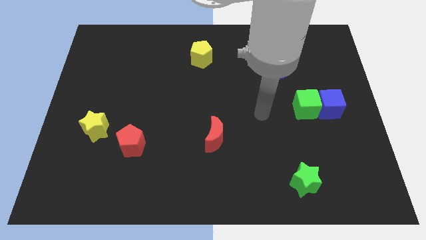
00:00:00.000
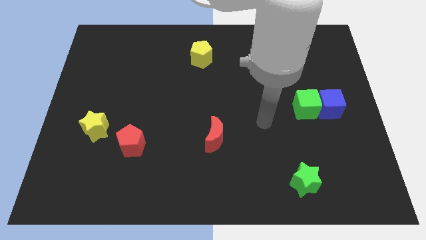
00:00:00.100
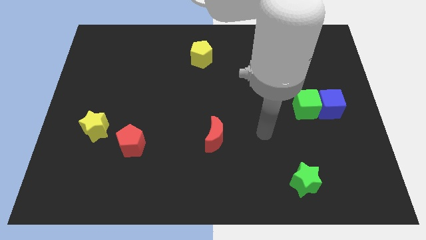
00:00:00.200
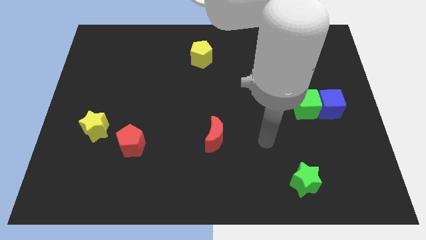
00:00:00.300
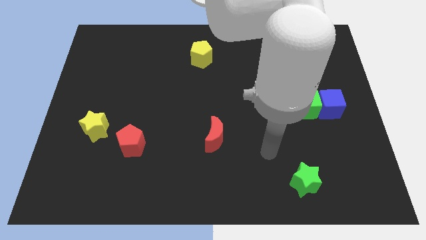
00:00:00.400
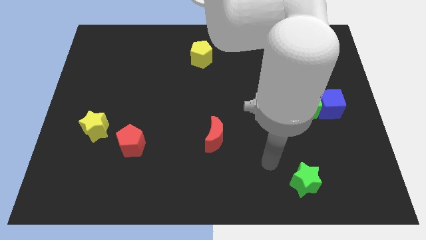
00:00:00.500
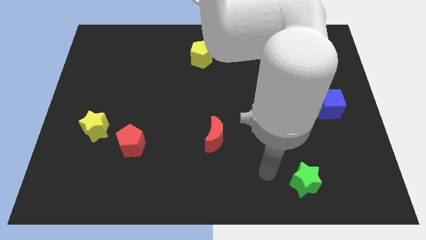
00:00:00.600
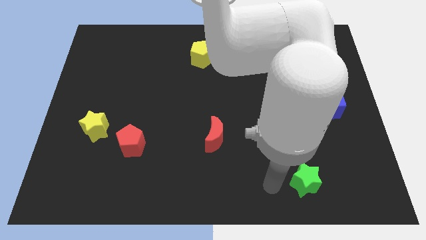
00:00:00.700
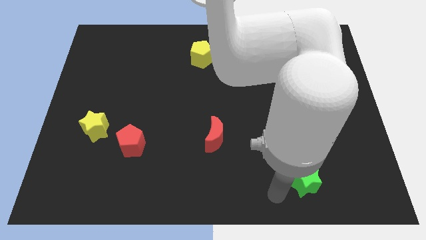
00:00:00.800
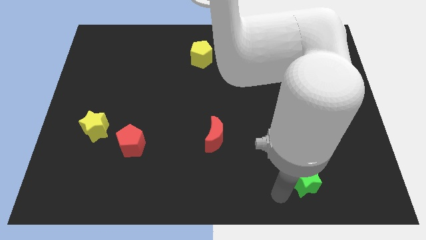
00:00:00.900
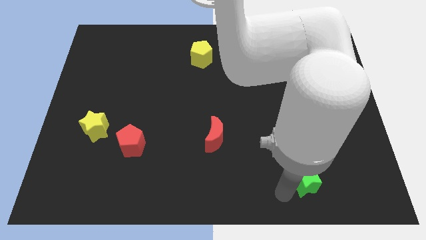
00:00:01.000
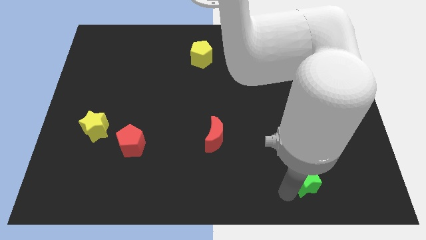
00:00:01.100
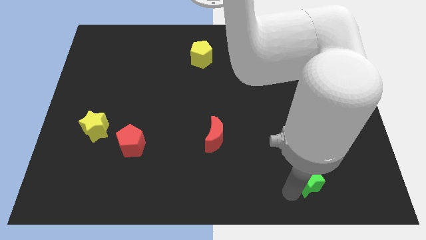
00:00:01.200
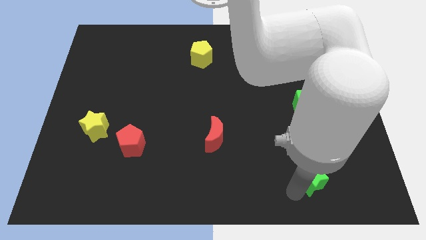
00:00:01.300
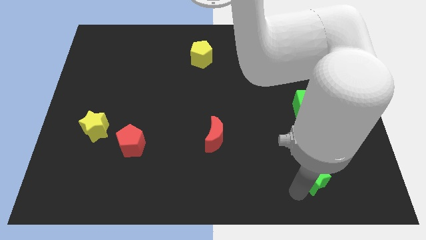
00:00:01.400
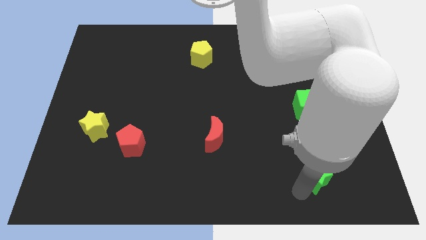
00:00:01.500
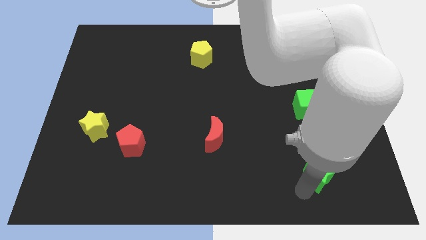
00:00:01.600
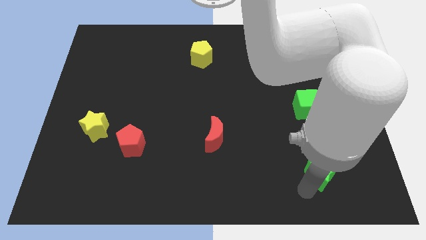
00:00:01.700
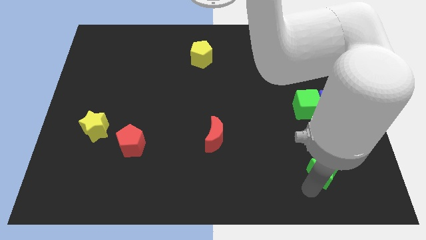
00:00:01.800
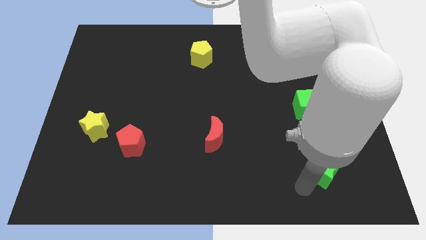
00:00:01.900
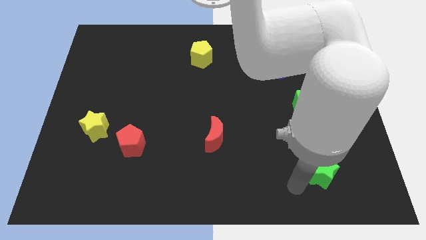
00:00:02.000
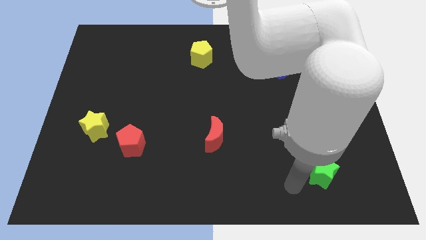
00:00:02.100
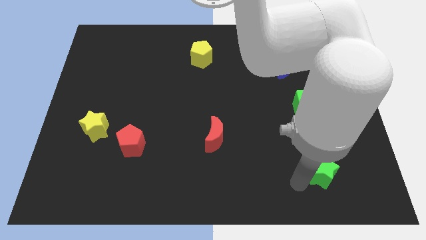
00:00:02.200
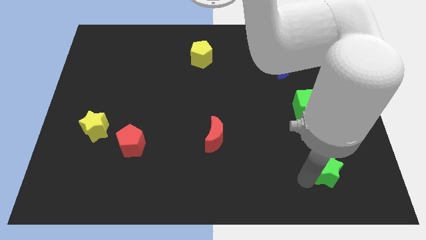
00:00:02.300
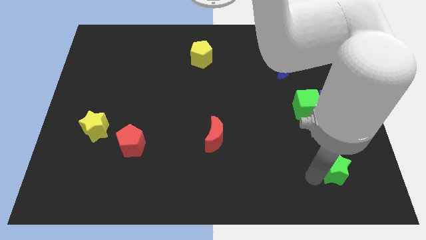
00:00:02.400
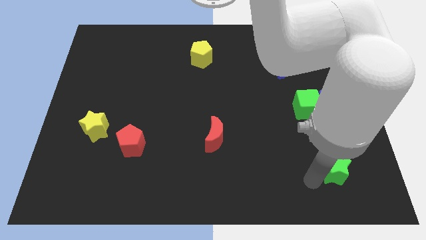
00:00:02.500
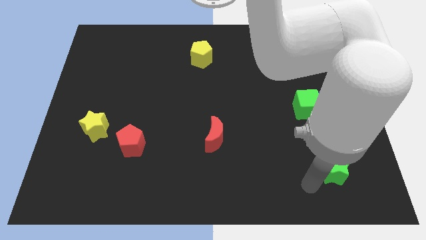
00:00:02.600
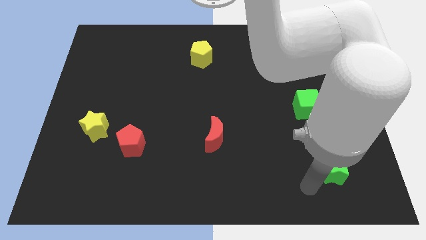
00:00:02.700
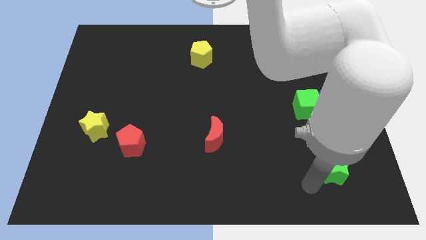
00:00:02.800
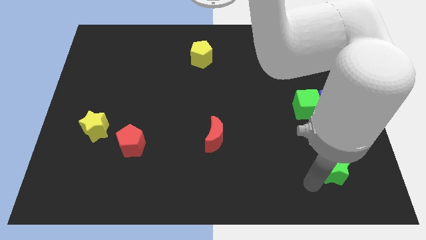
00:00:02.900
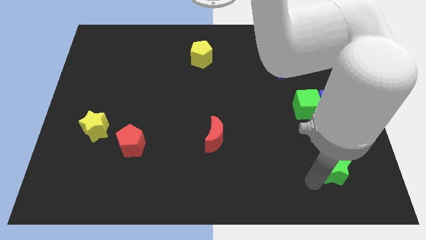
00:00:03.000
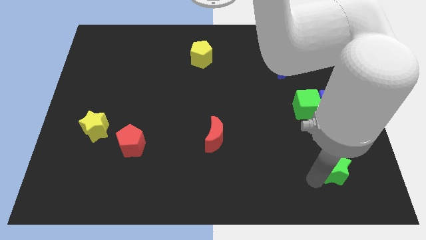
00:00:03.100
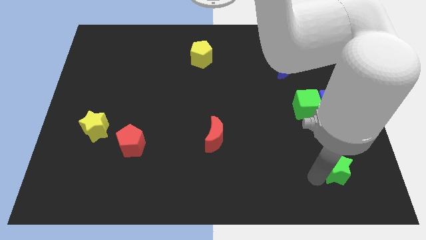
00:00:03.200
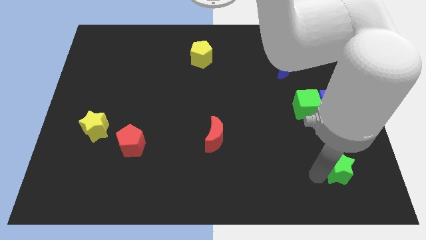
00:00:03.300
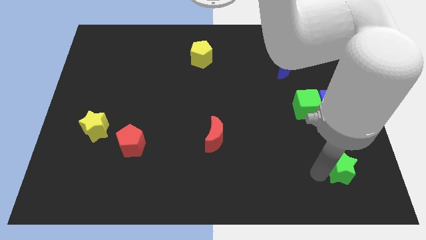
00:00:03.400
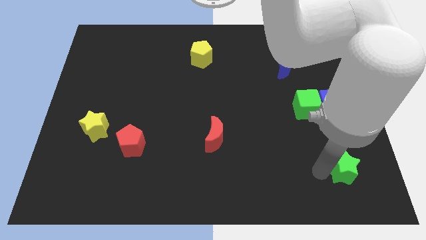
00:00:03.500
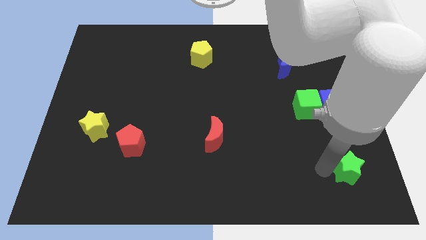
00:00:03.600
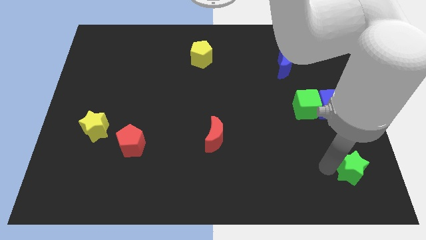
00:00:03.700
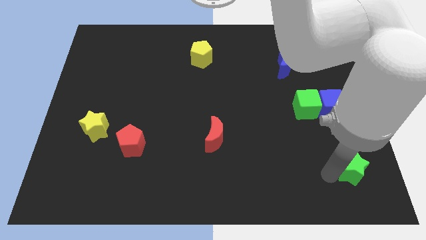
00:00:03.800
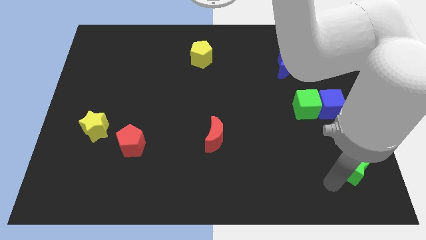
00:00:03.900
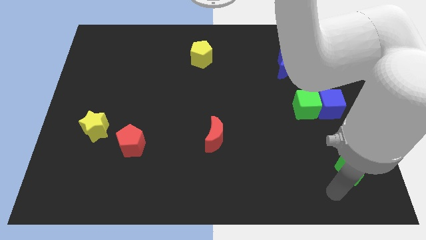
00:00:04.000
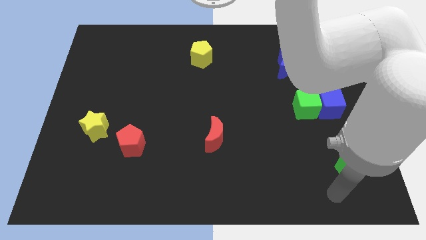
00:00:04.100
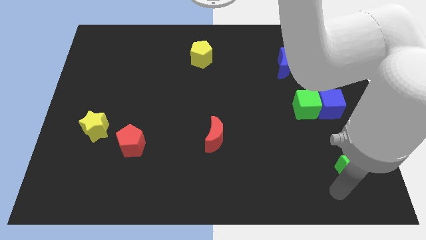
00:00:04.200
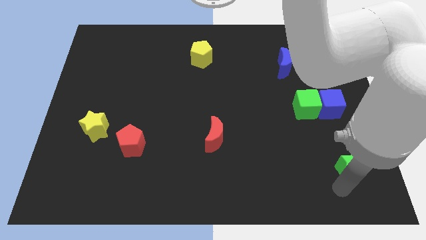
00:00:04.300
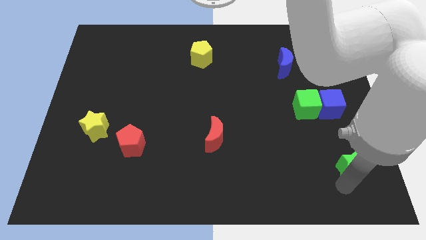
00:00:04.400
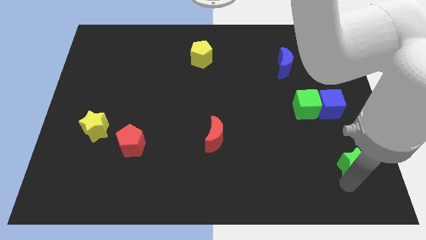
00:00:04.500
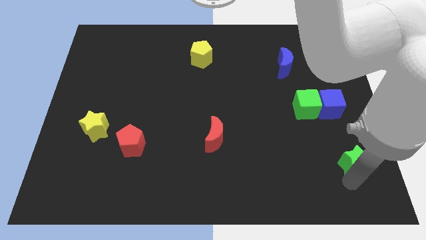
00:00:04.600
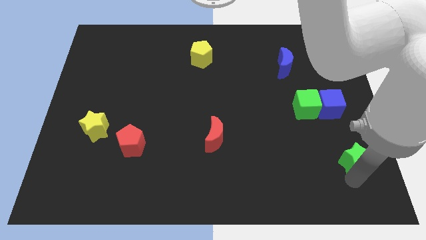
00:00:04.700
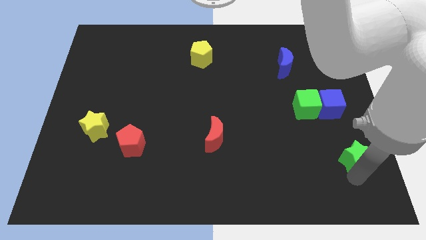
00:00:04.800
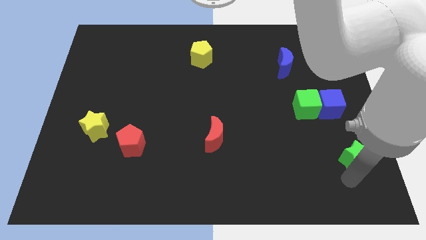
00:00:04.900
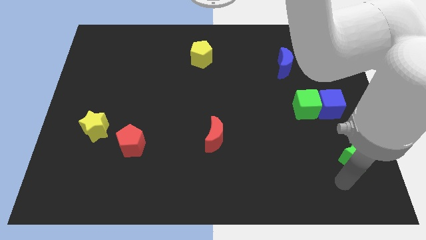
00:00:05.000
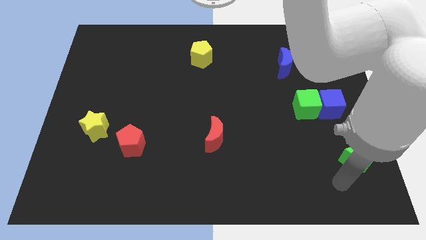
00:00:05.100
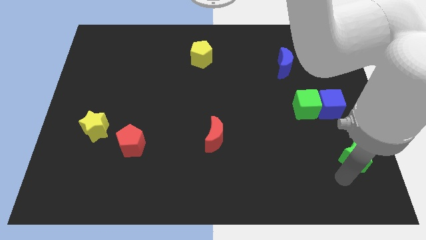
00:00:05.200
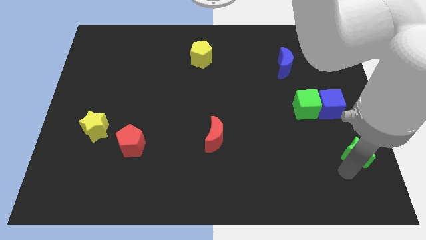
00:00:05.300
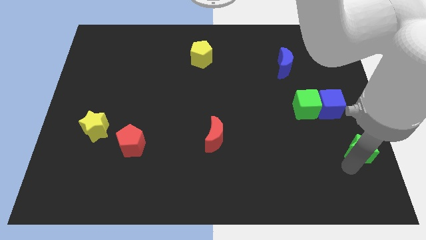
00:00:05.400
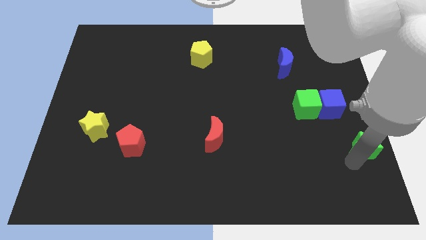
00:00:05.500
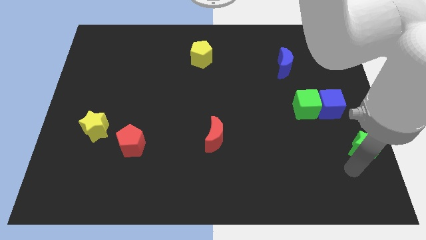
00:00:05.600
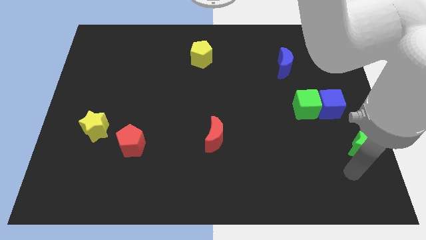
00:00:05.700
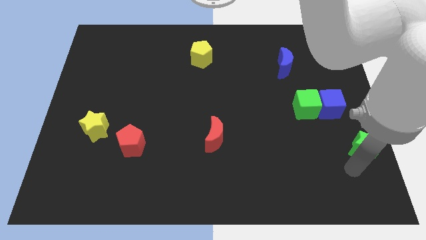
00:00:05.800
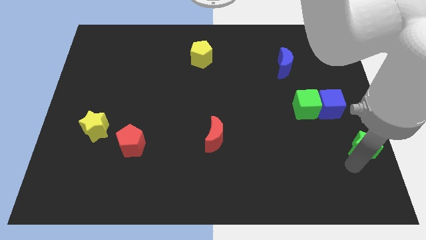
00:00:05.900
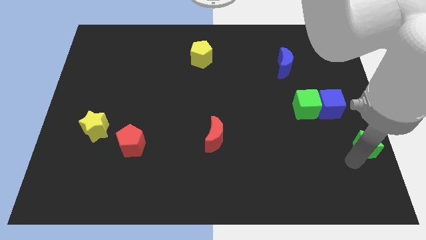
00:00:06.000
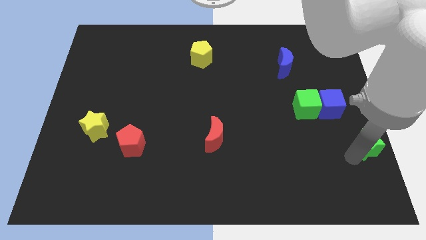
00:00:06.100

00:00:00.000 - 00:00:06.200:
push the green star to the right side
